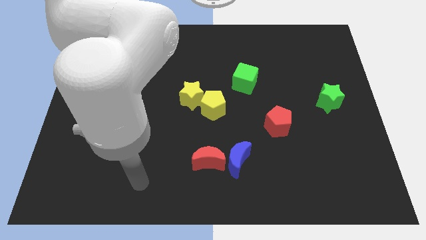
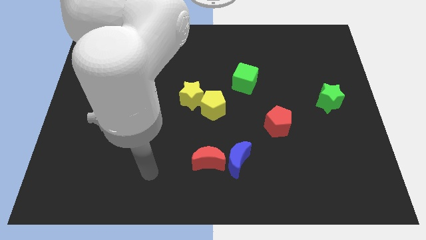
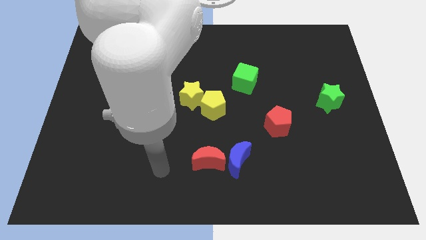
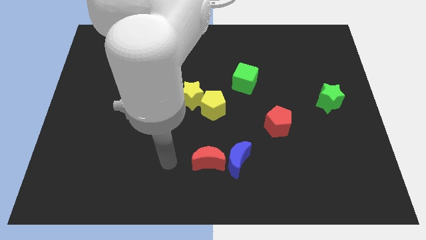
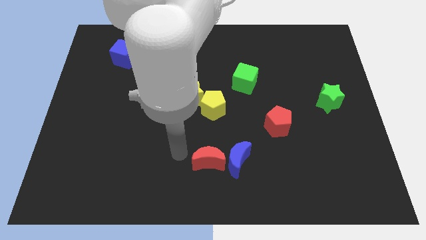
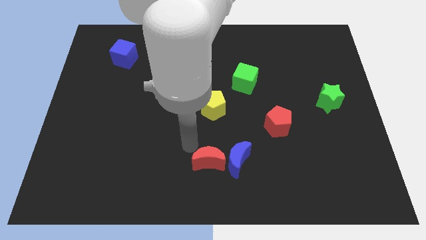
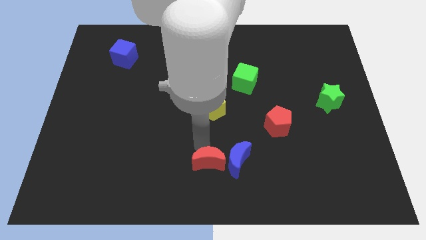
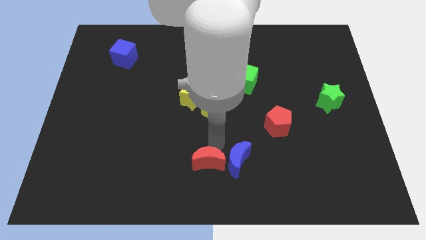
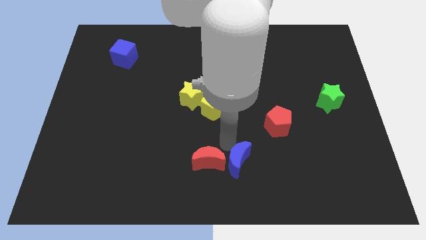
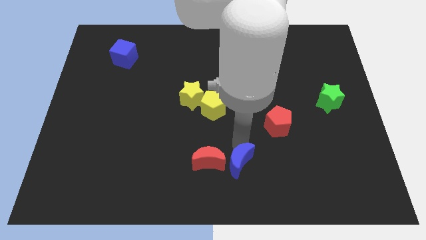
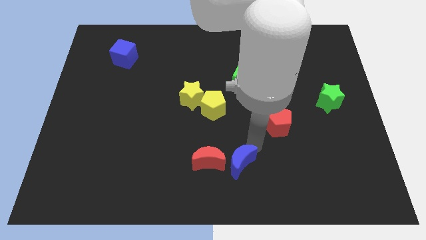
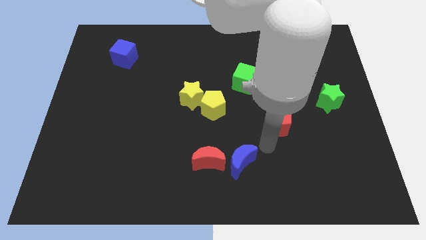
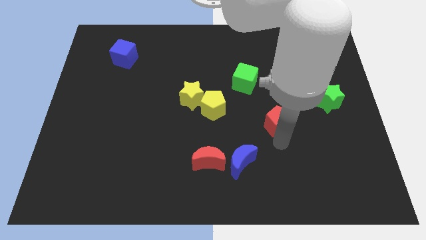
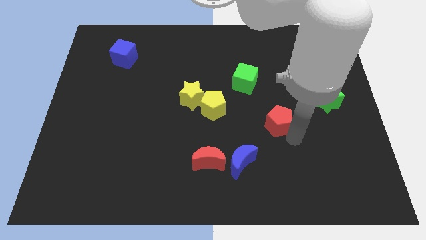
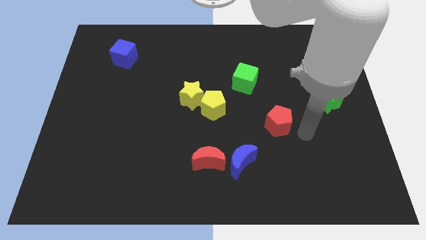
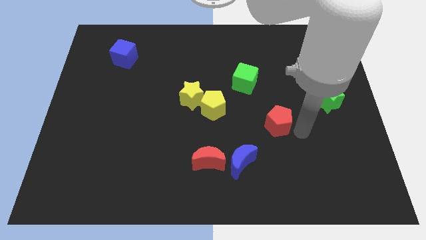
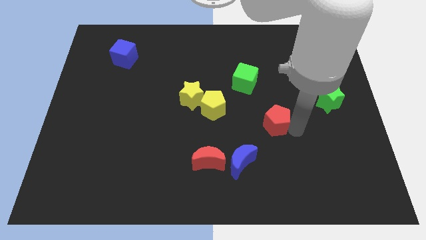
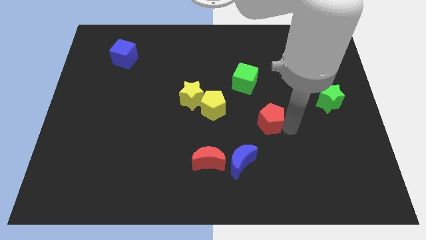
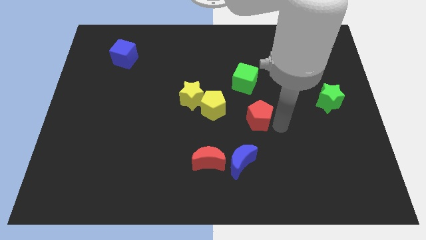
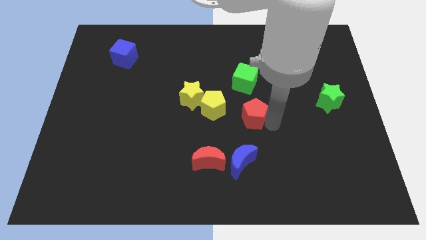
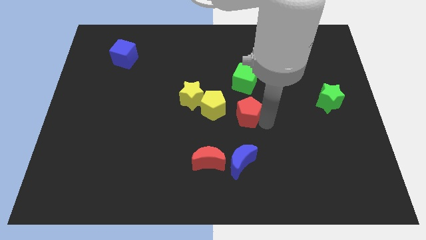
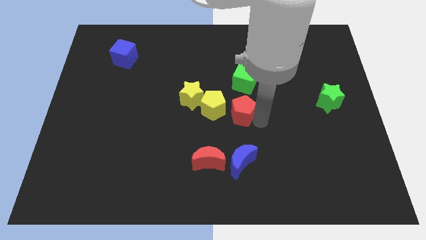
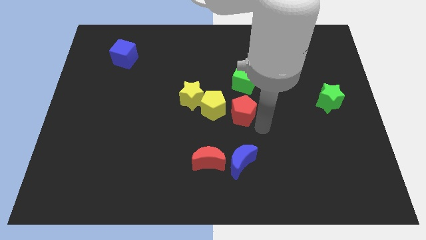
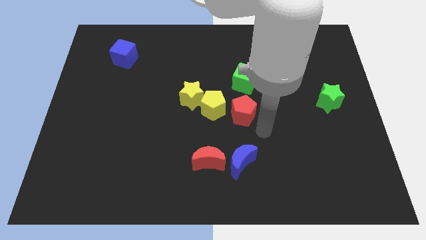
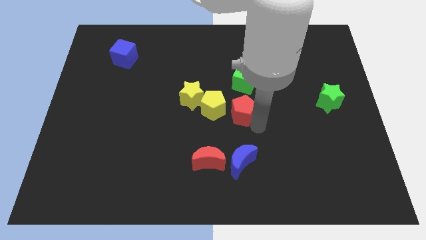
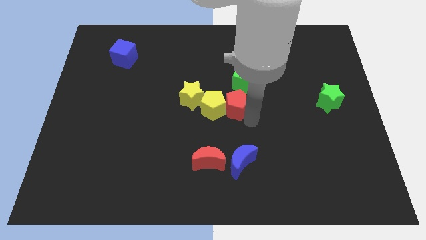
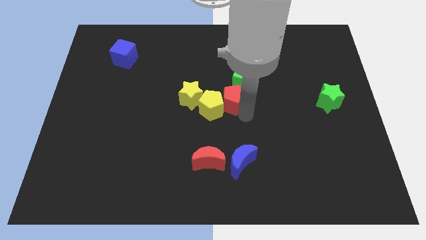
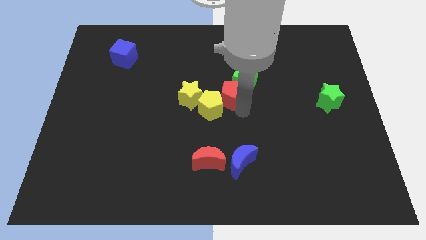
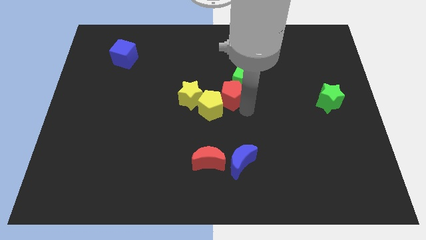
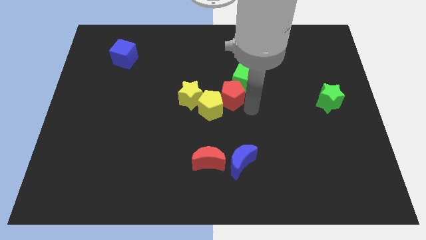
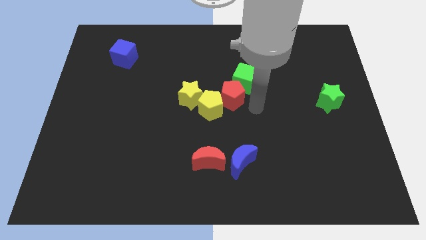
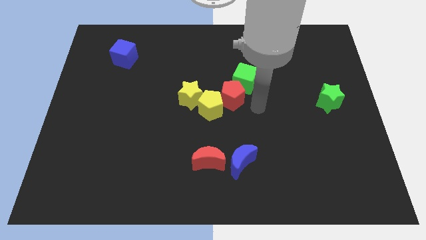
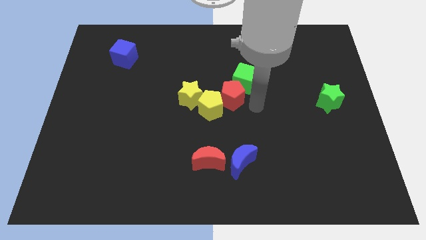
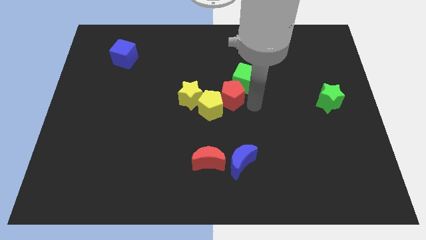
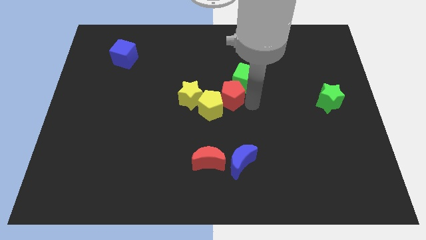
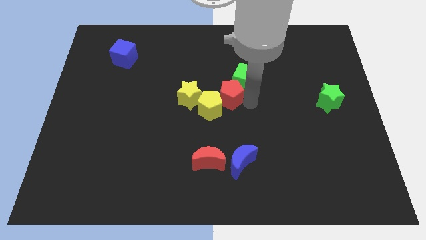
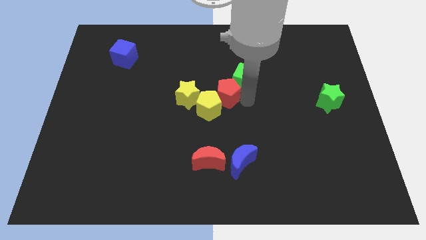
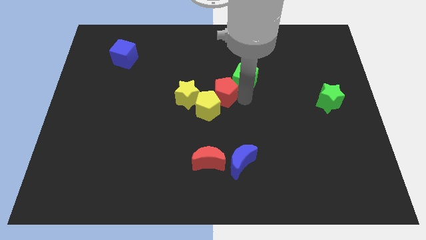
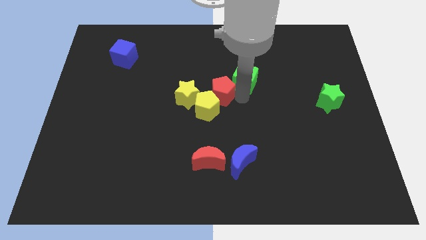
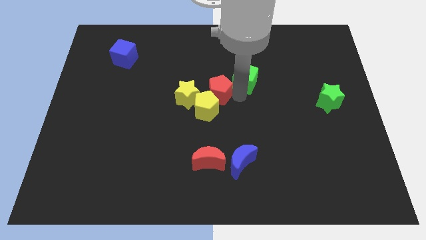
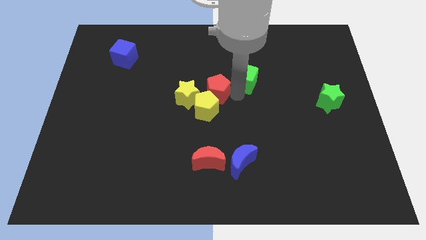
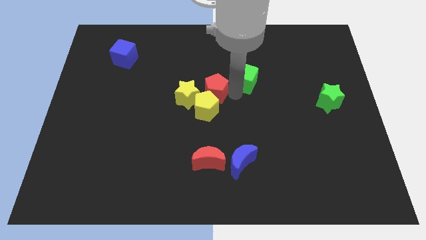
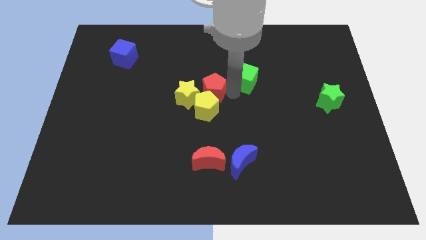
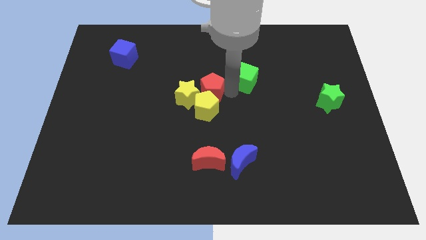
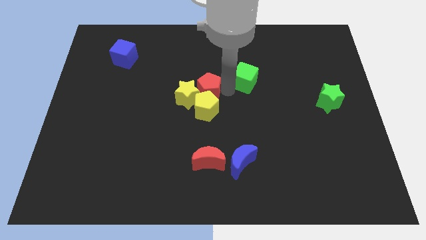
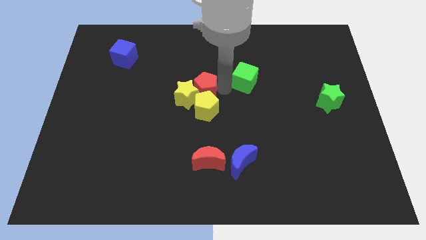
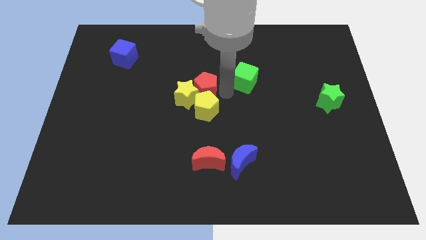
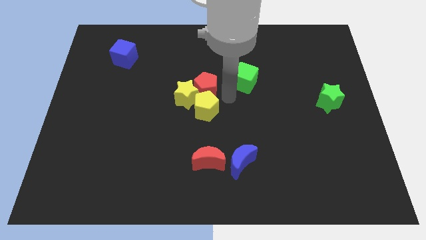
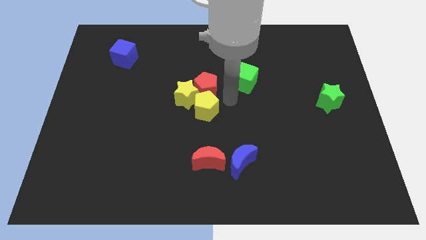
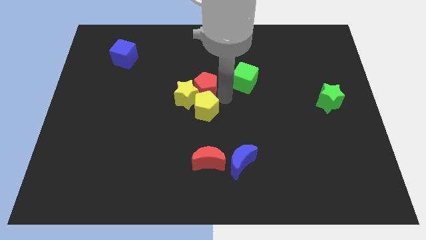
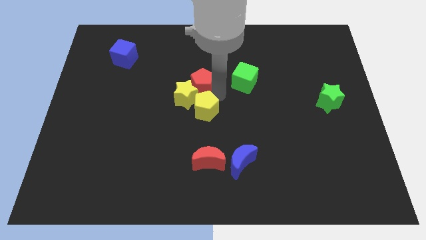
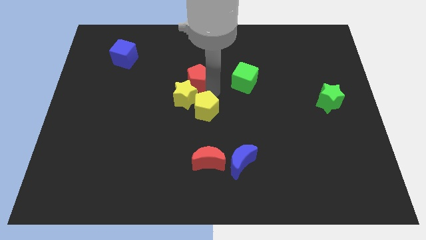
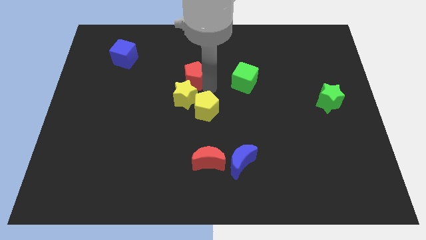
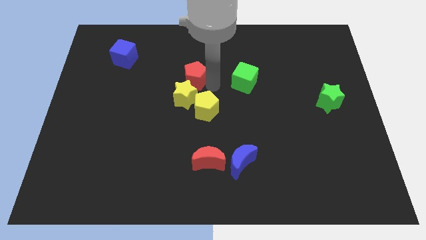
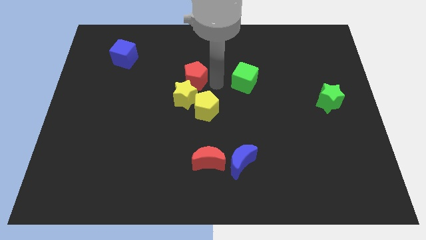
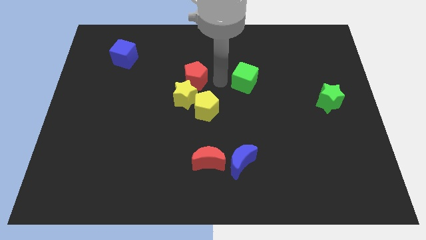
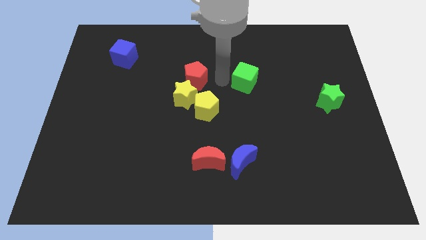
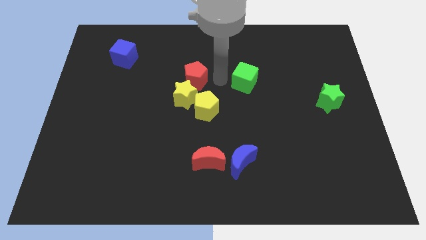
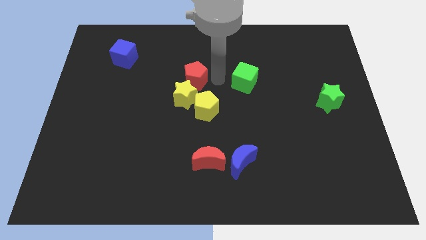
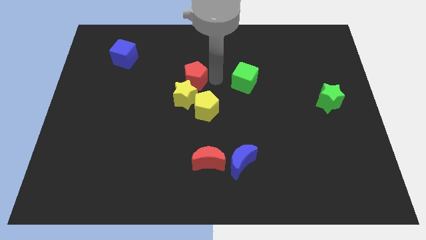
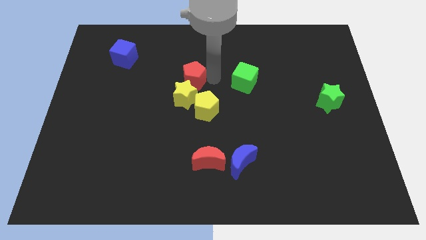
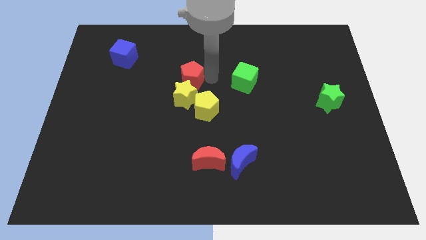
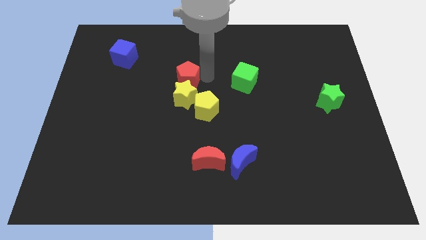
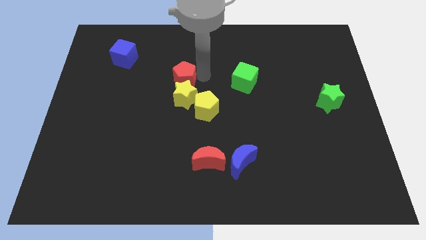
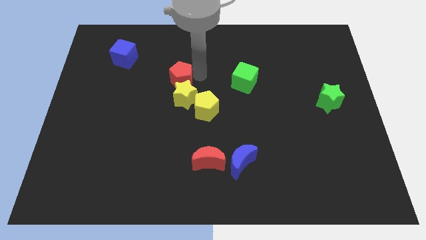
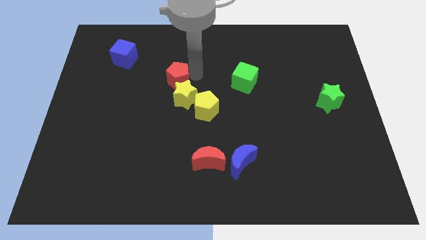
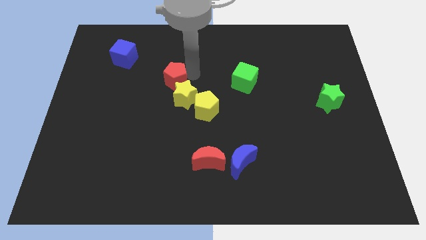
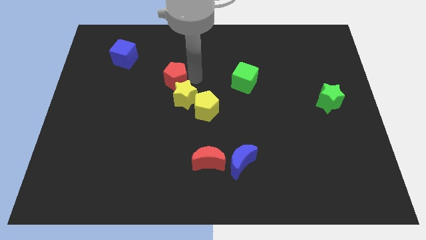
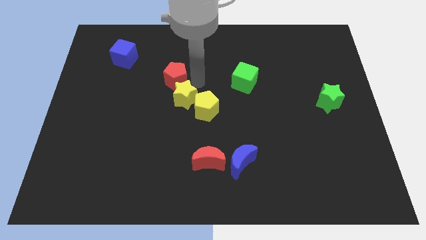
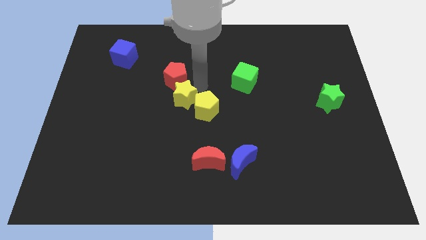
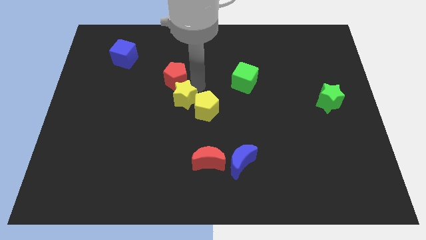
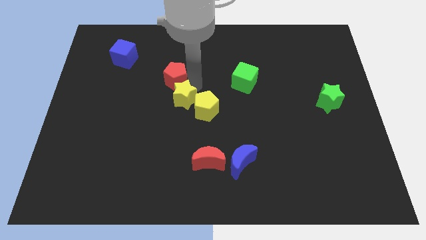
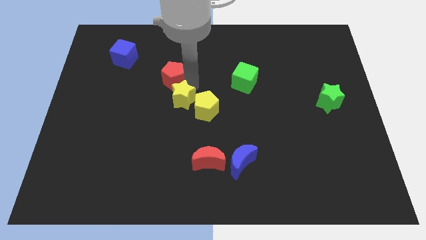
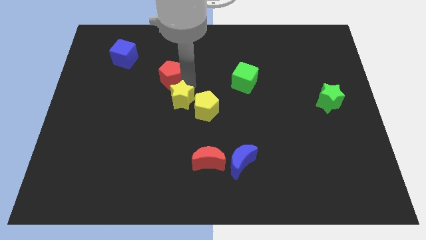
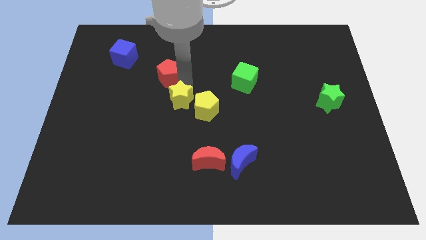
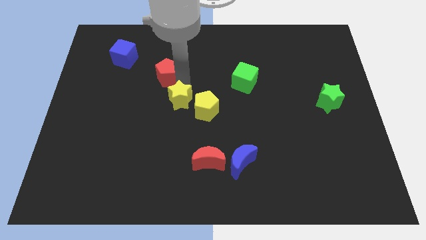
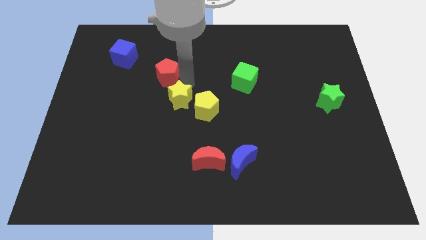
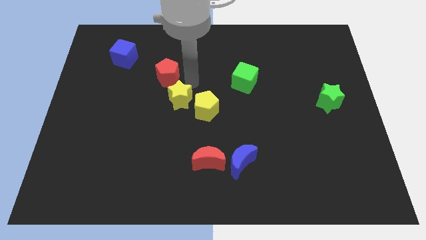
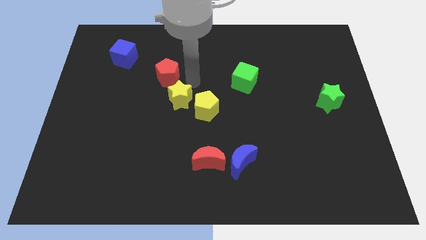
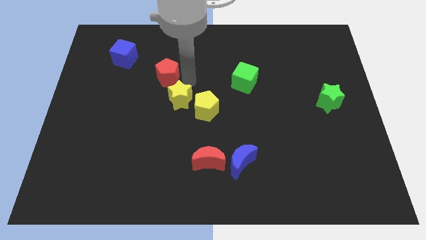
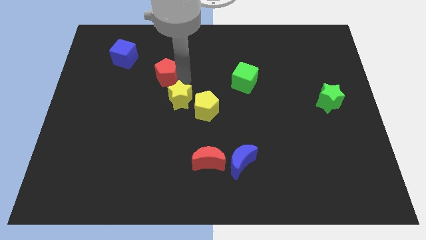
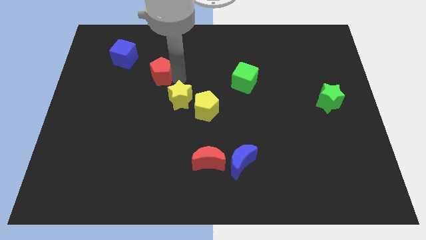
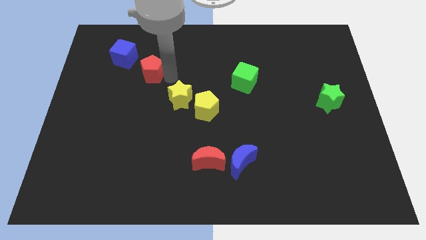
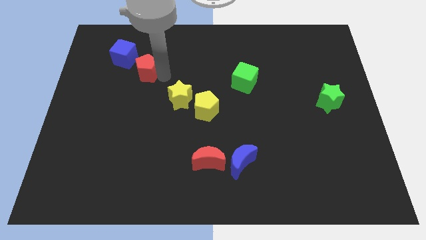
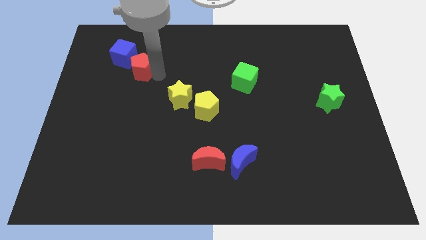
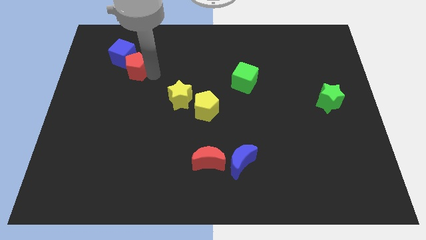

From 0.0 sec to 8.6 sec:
push the red pentagon next to the blue cube
